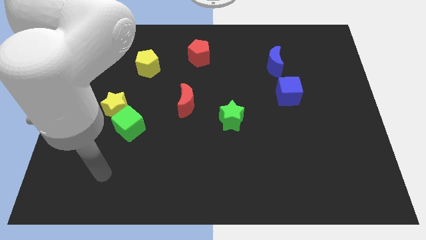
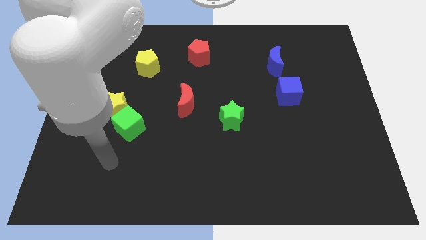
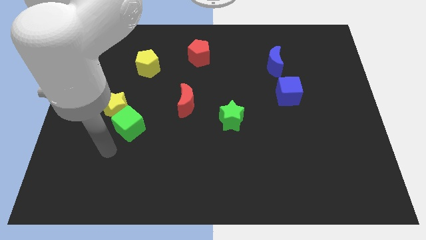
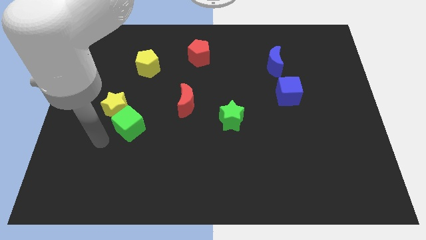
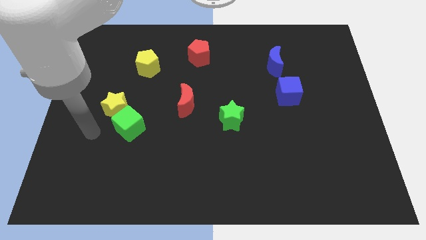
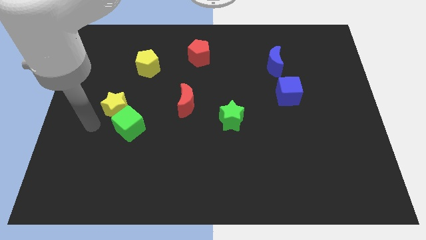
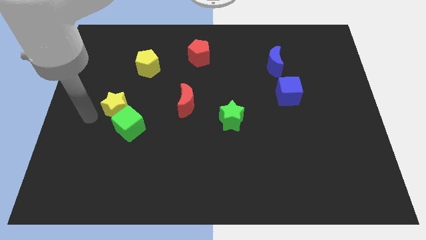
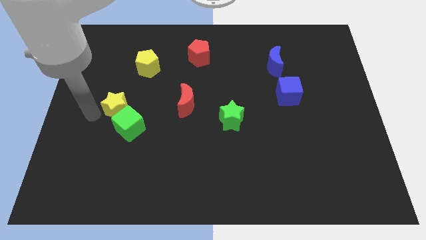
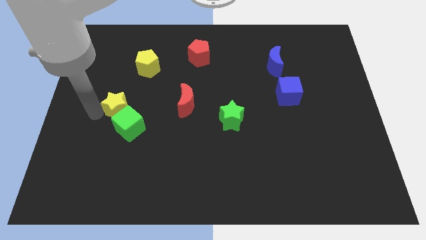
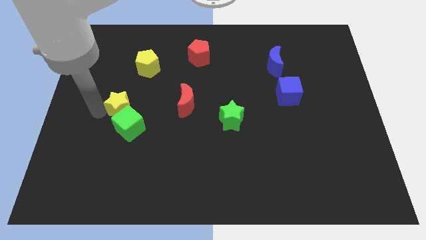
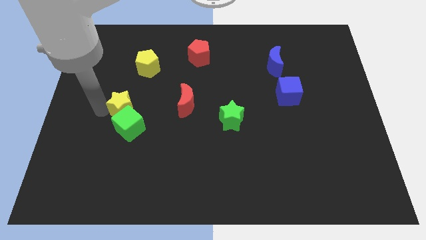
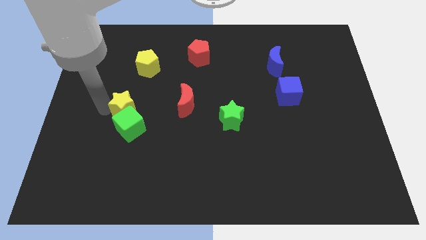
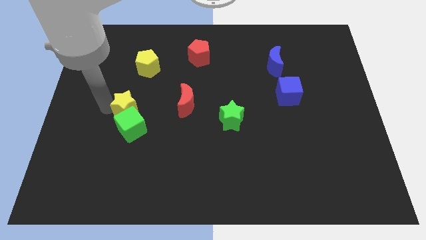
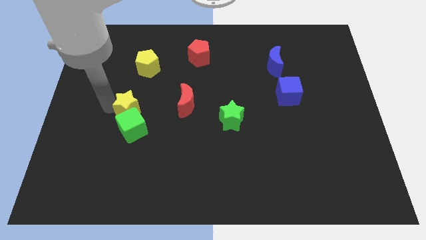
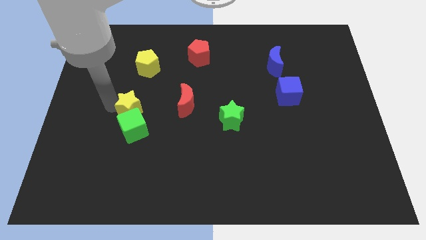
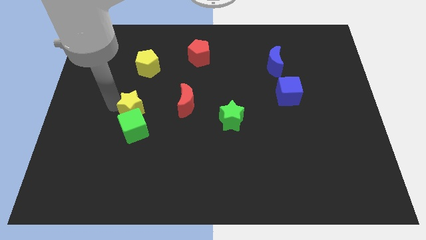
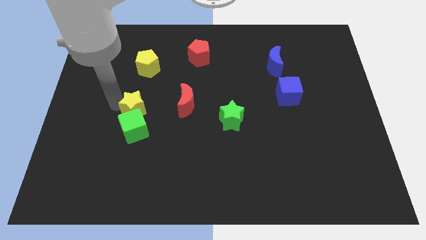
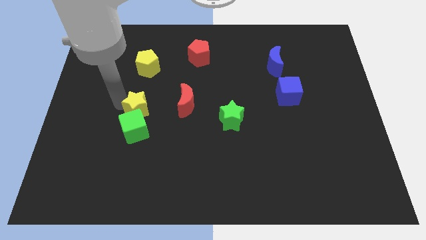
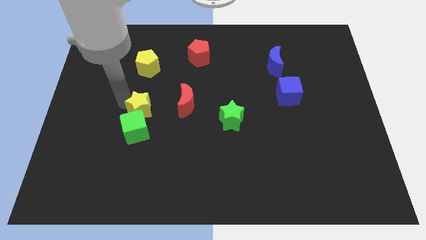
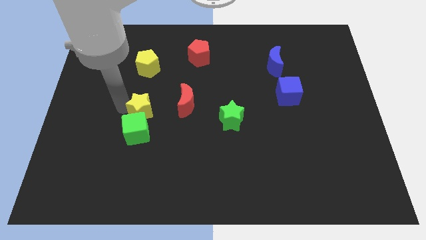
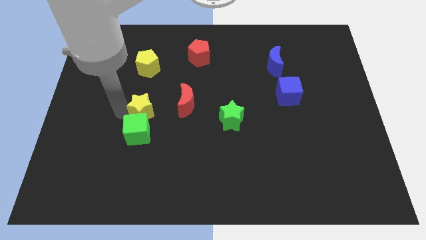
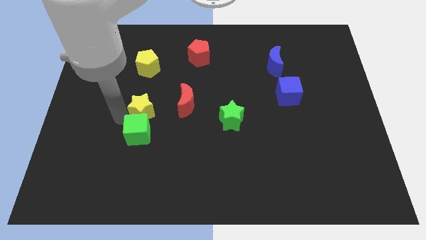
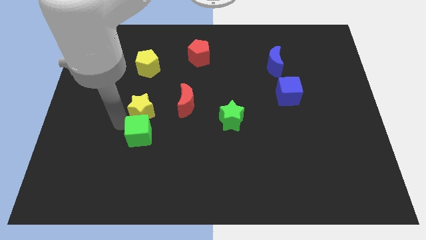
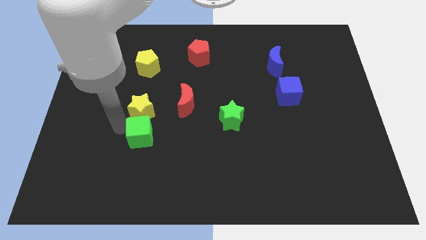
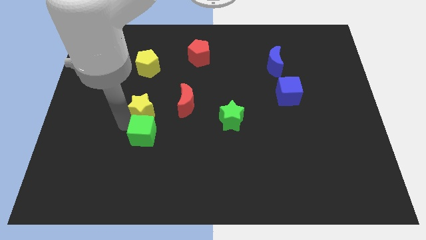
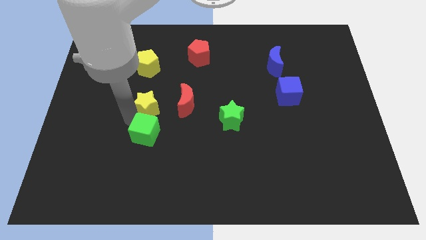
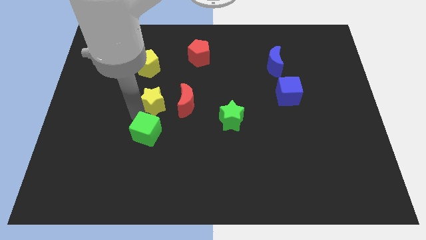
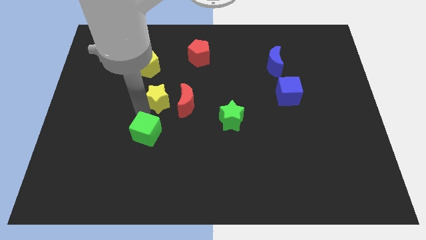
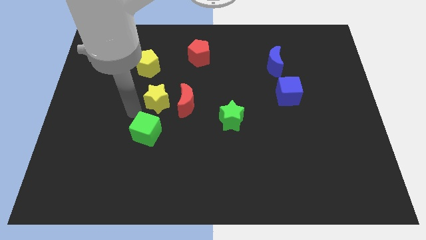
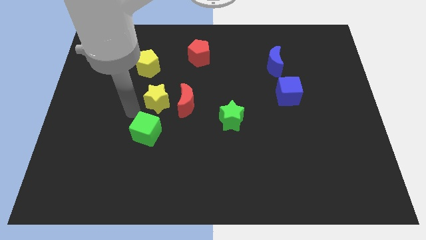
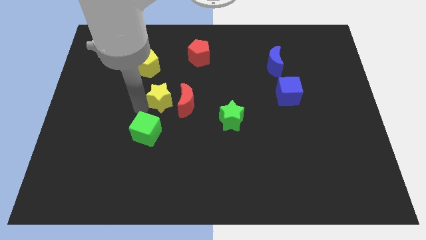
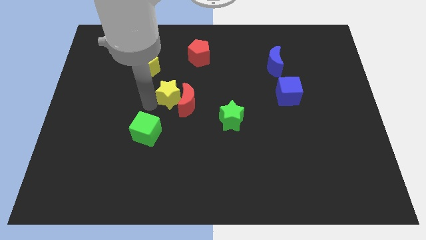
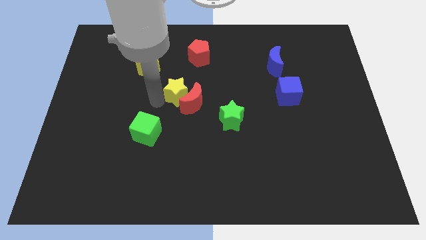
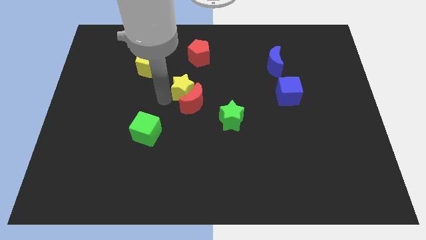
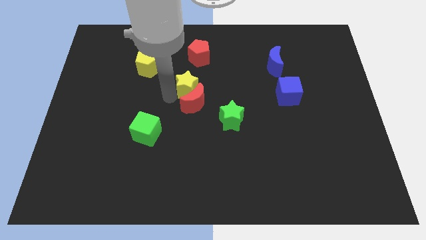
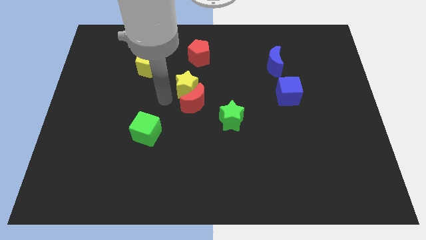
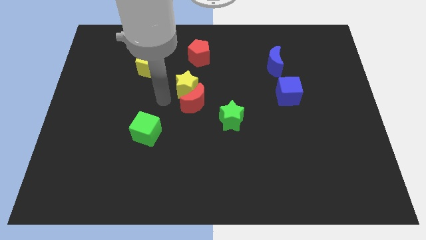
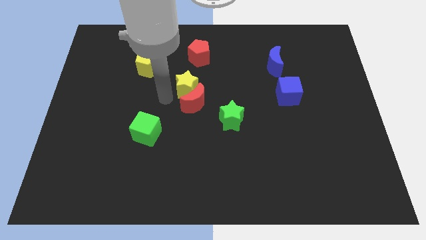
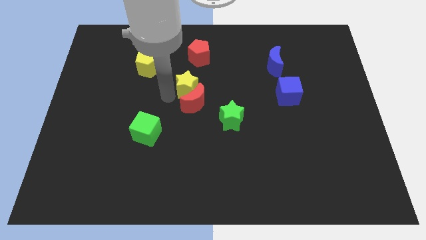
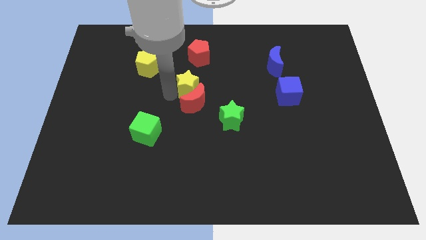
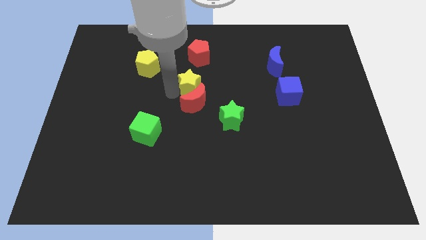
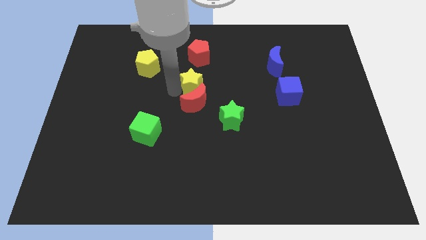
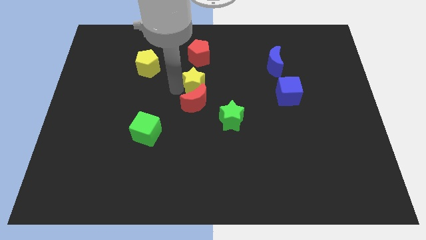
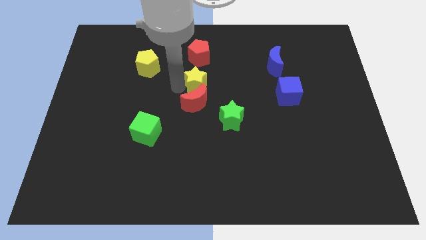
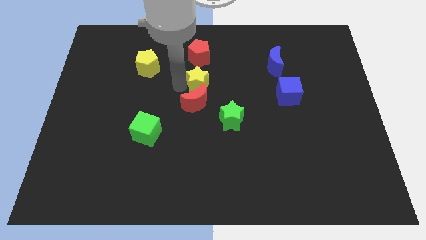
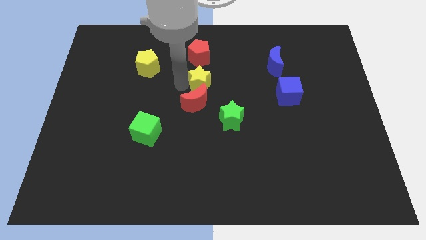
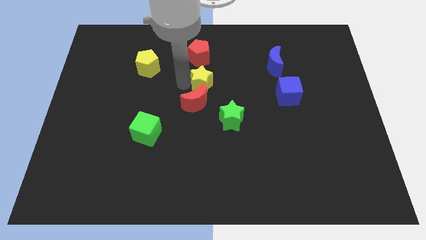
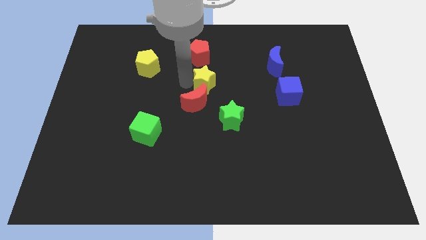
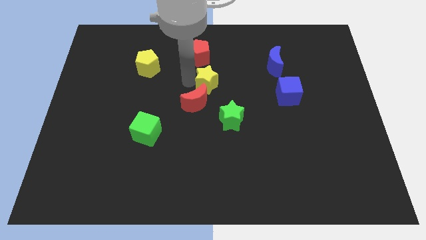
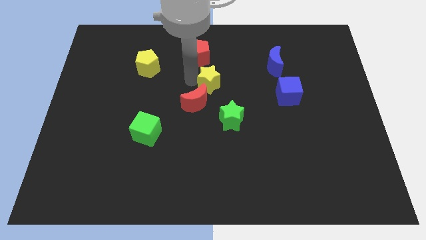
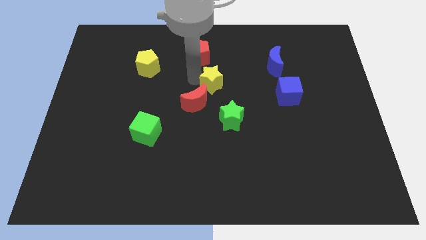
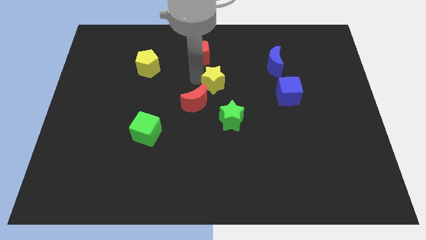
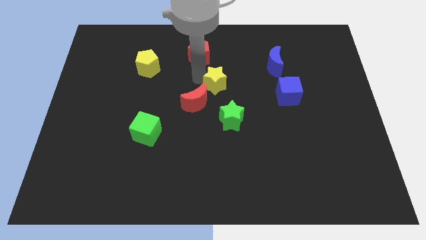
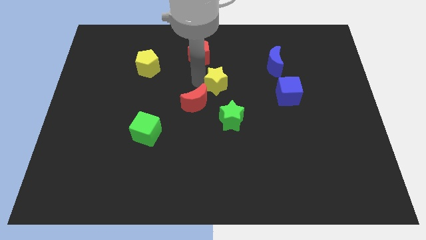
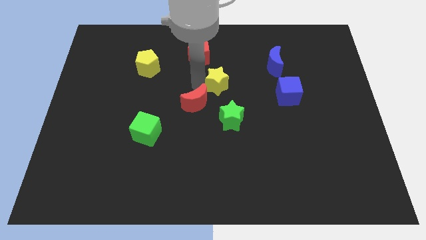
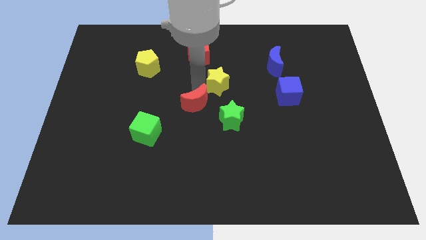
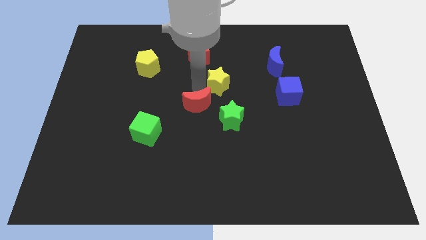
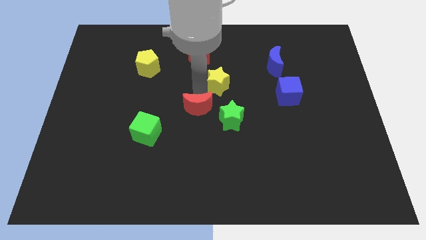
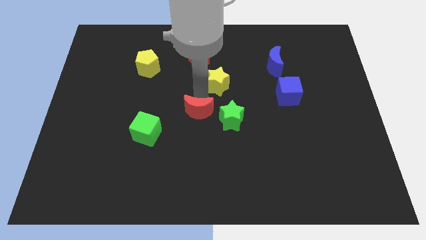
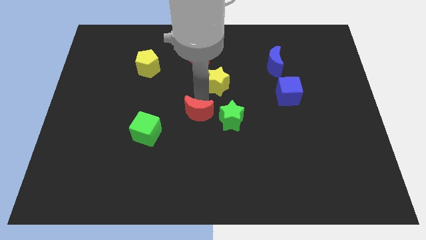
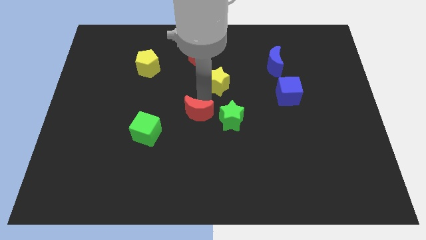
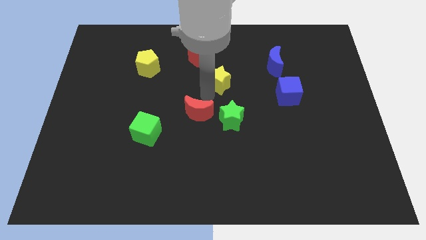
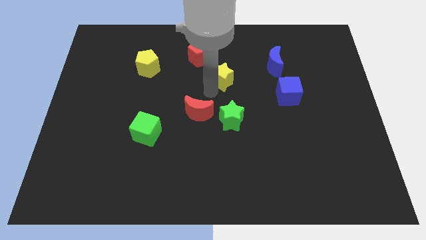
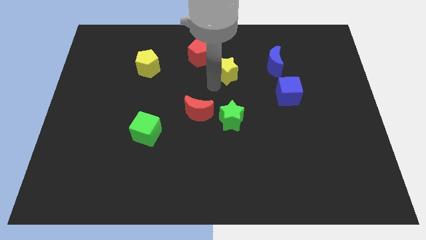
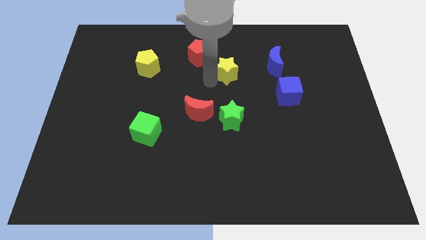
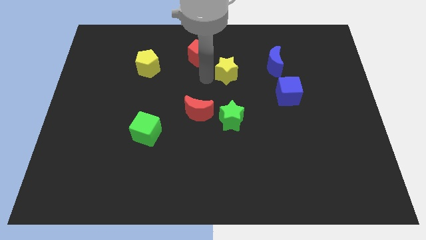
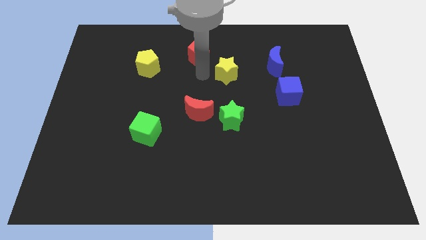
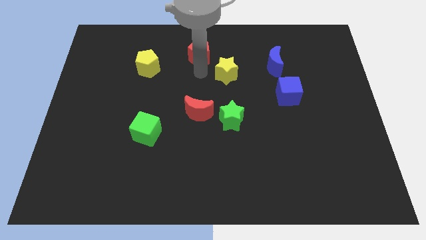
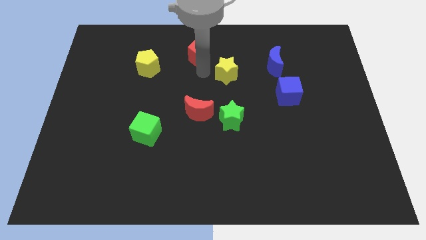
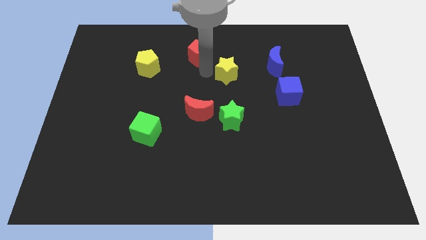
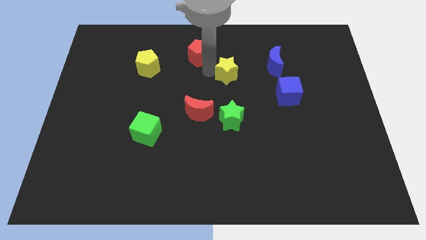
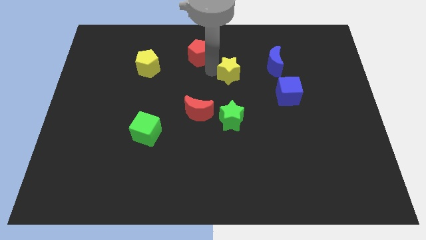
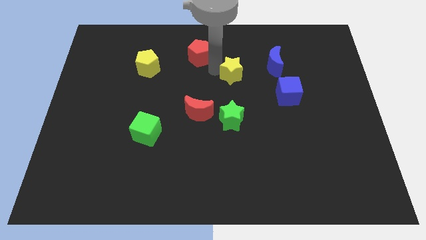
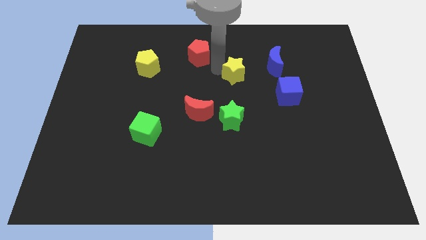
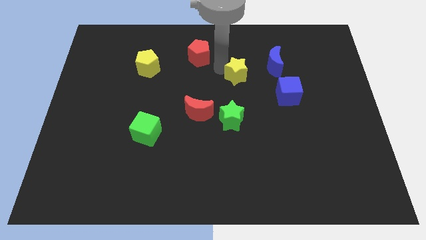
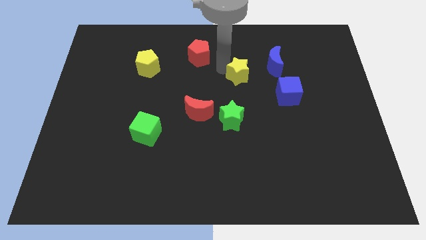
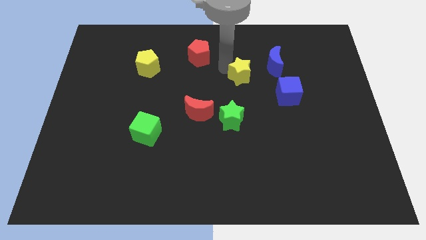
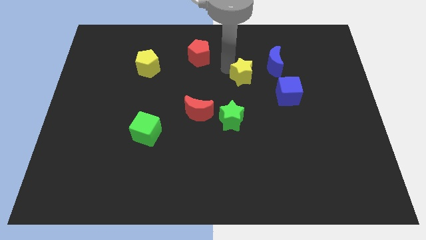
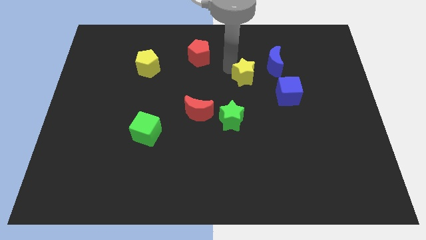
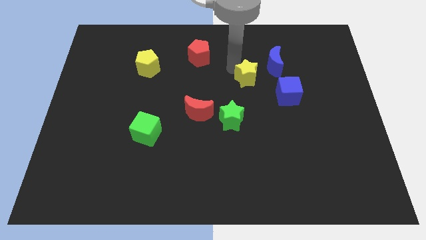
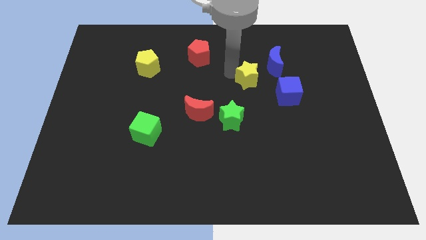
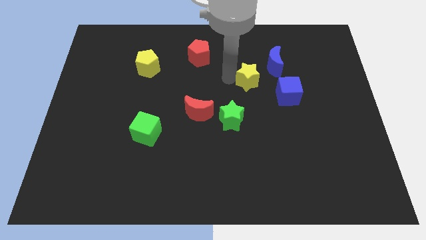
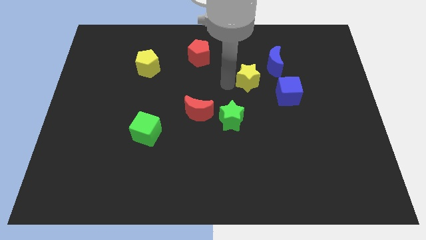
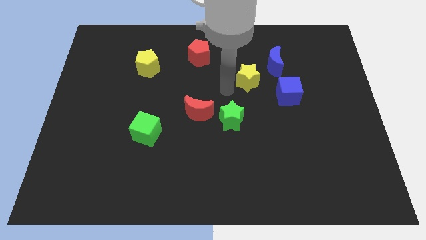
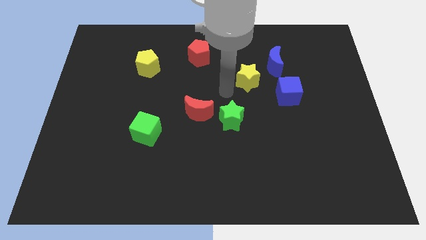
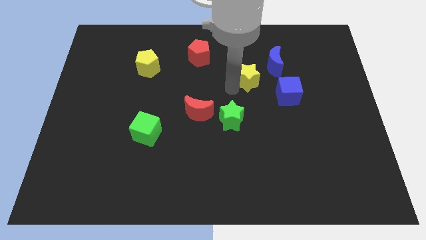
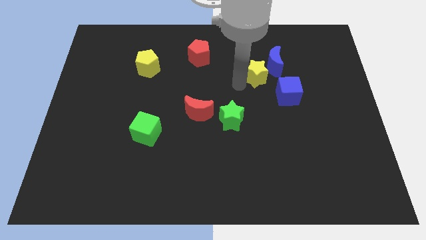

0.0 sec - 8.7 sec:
push the yellow star next to the blue moon
